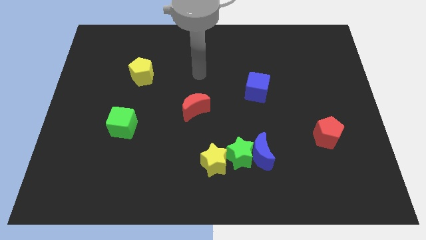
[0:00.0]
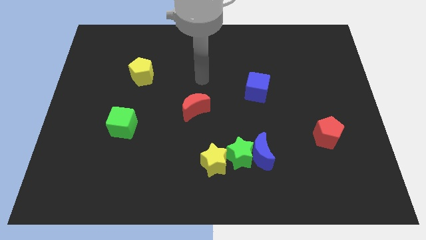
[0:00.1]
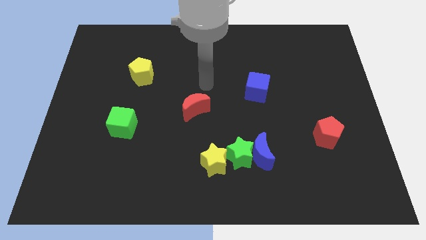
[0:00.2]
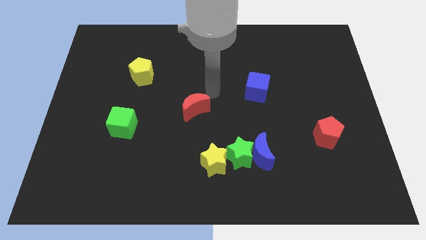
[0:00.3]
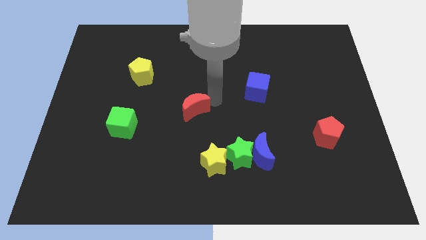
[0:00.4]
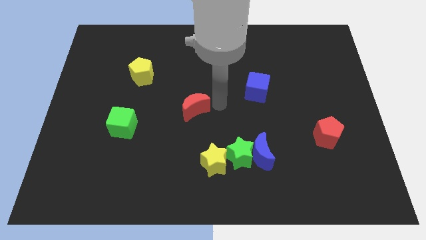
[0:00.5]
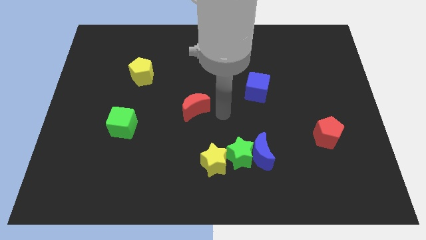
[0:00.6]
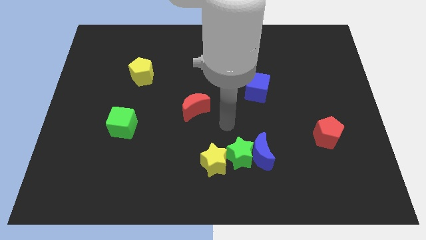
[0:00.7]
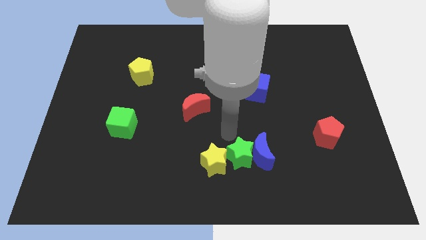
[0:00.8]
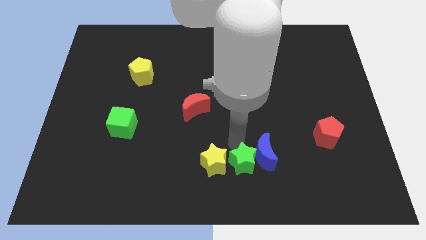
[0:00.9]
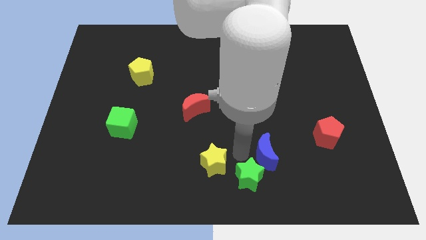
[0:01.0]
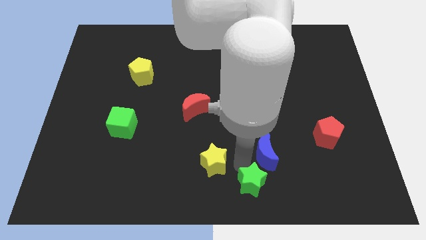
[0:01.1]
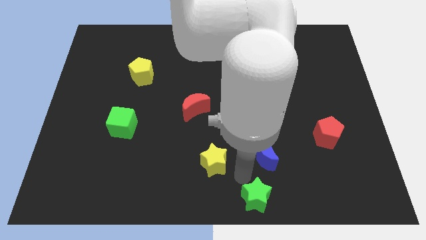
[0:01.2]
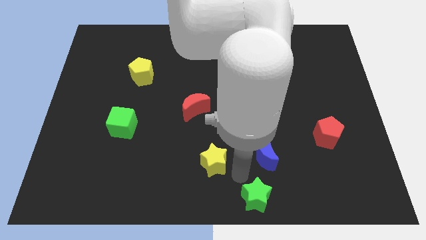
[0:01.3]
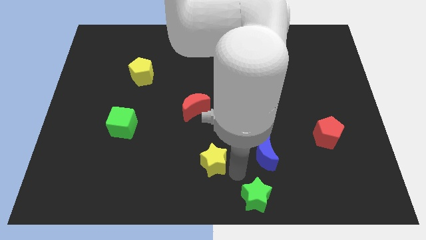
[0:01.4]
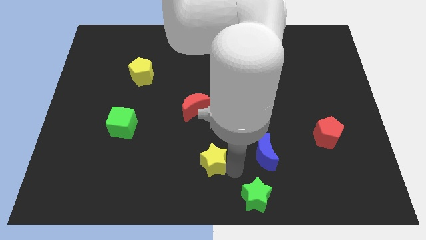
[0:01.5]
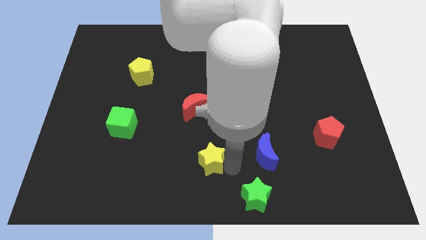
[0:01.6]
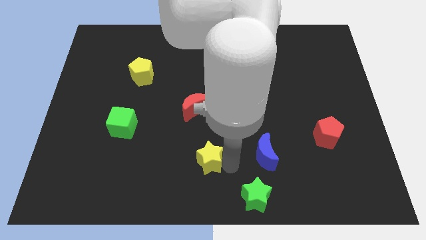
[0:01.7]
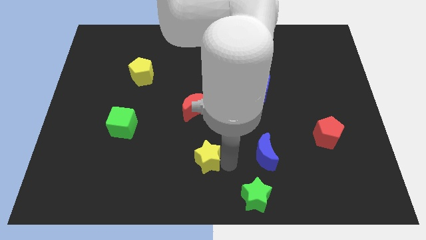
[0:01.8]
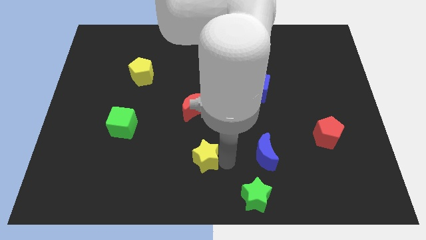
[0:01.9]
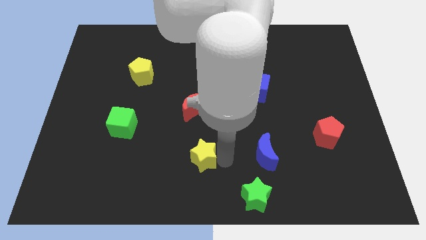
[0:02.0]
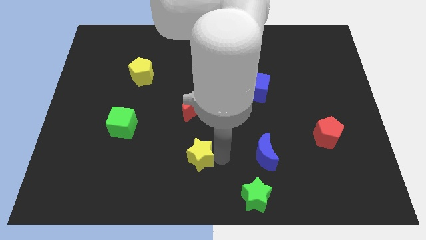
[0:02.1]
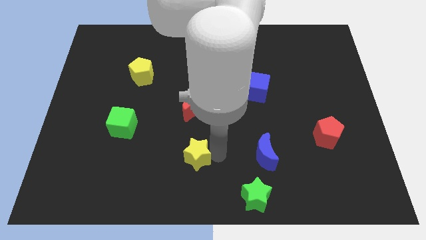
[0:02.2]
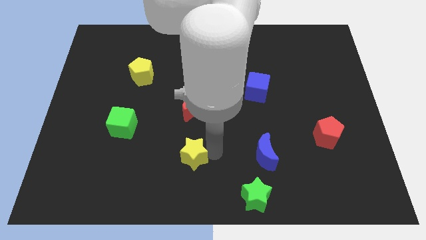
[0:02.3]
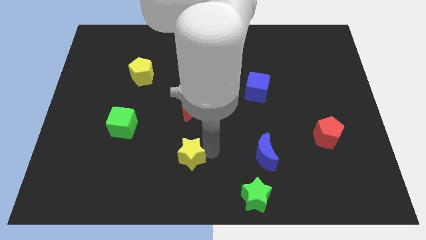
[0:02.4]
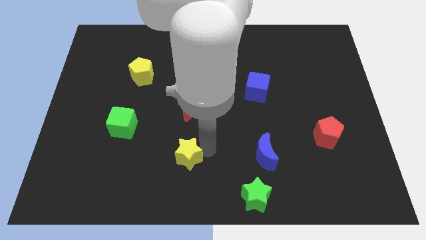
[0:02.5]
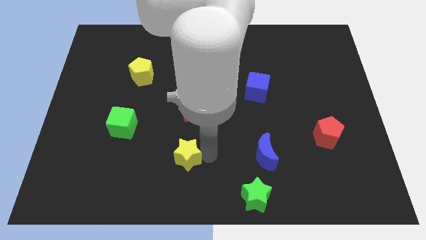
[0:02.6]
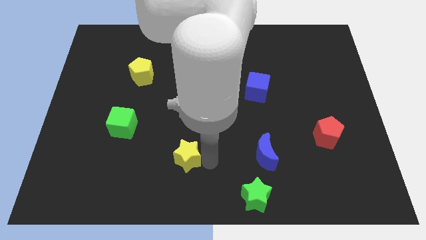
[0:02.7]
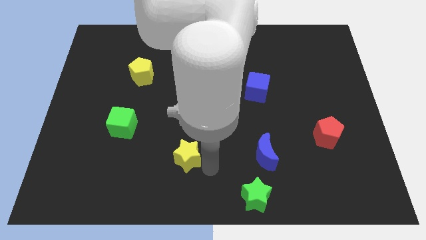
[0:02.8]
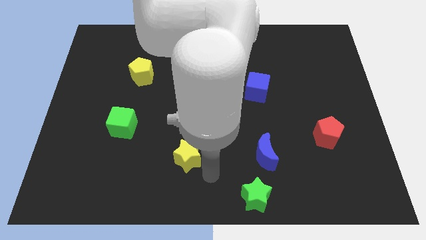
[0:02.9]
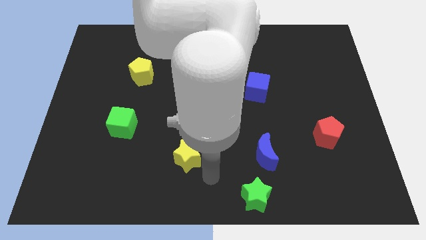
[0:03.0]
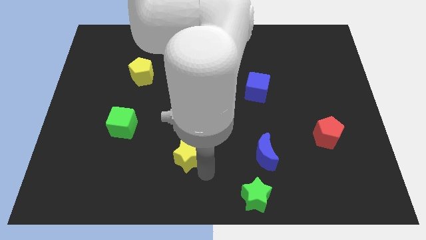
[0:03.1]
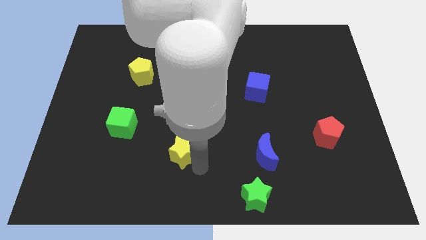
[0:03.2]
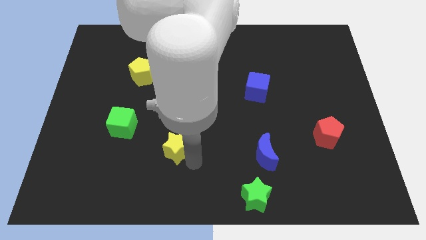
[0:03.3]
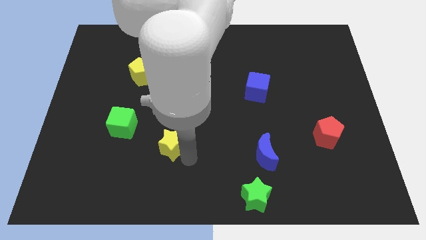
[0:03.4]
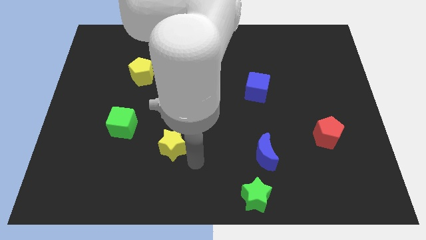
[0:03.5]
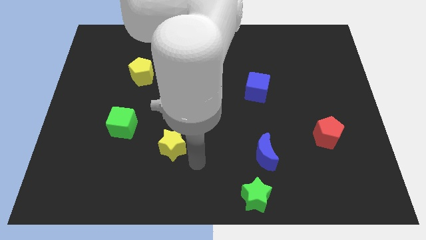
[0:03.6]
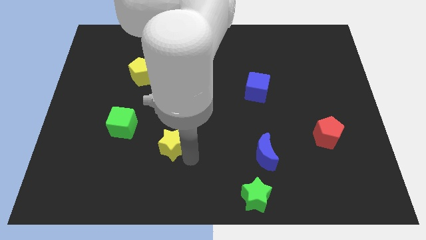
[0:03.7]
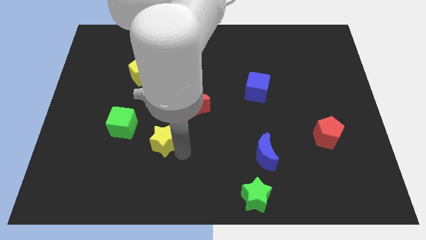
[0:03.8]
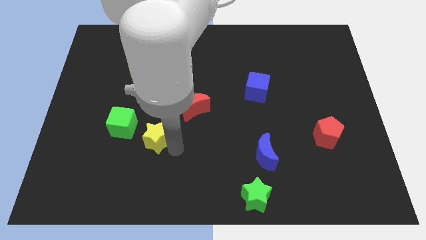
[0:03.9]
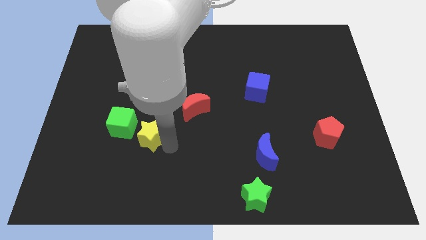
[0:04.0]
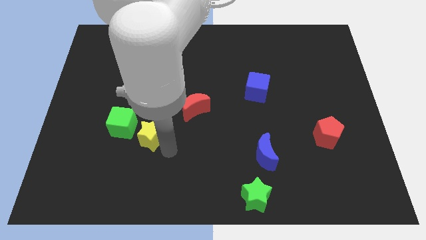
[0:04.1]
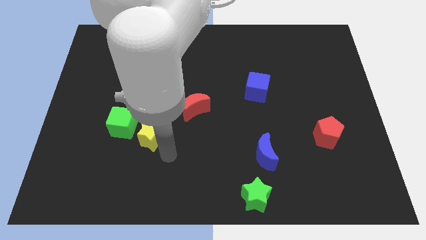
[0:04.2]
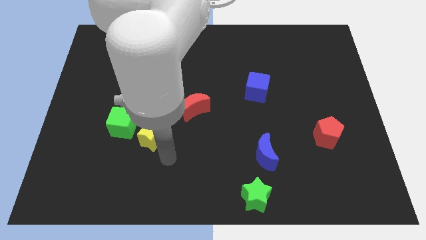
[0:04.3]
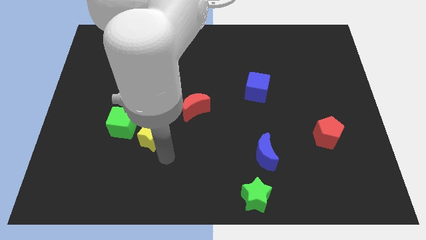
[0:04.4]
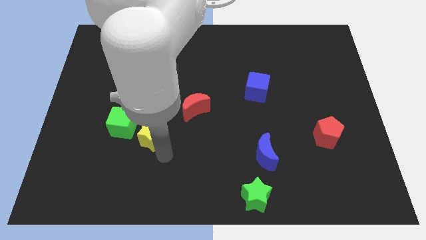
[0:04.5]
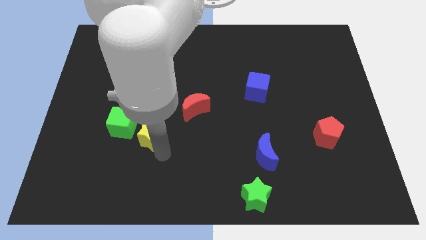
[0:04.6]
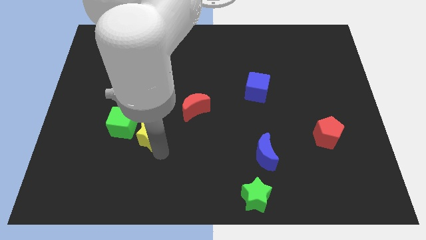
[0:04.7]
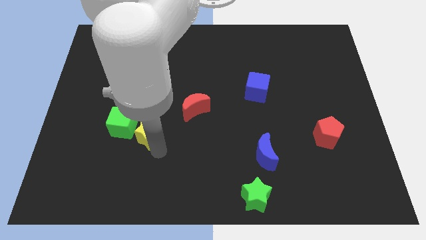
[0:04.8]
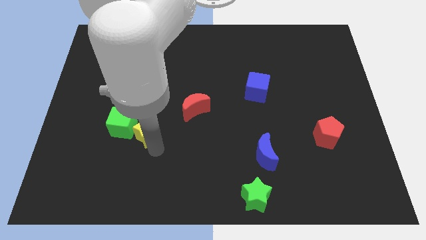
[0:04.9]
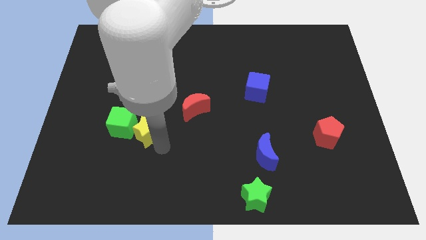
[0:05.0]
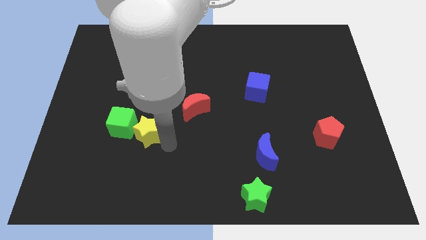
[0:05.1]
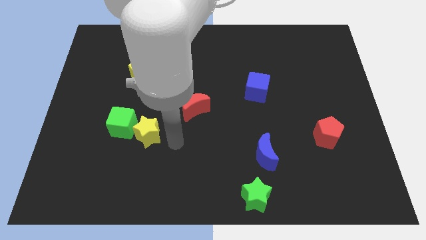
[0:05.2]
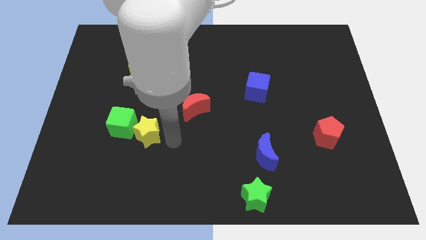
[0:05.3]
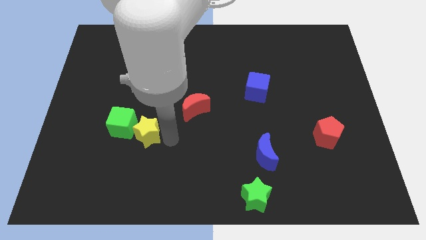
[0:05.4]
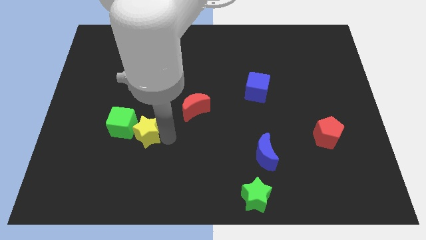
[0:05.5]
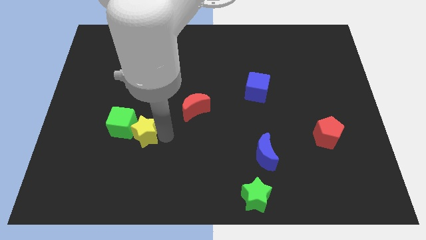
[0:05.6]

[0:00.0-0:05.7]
slide the yellow star close to the green cube

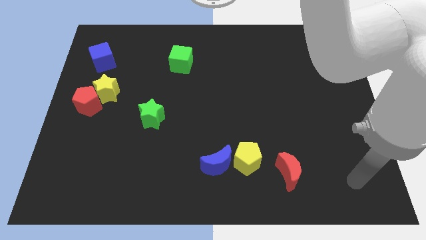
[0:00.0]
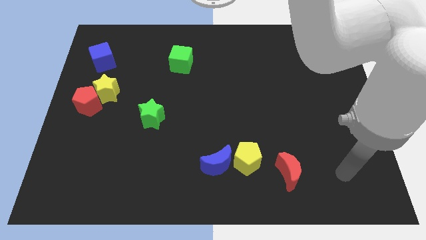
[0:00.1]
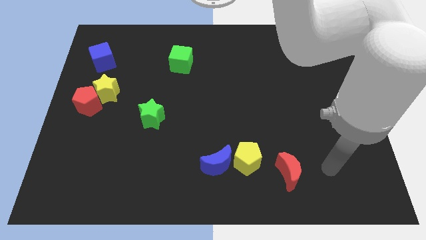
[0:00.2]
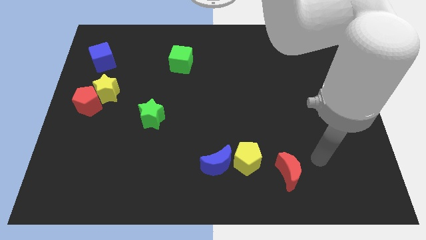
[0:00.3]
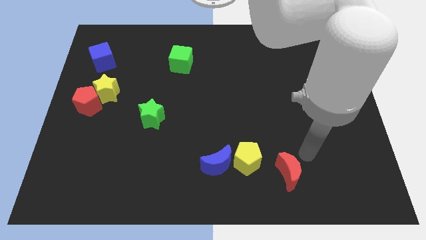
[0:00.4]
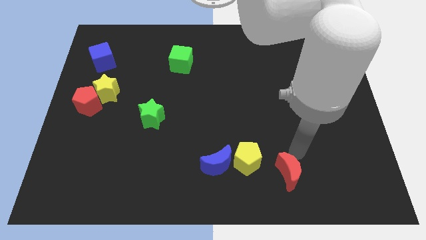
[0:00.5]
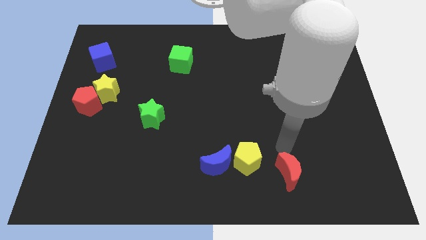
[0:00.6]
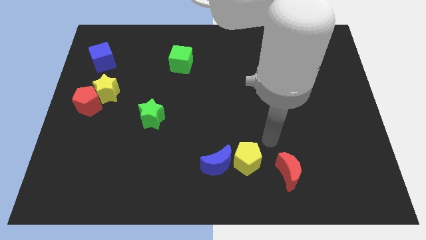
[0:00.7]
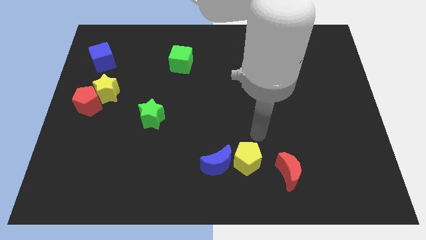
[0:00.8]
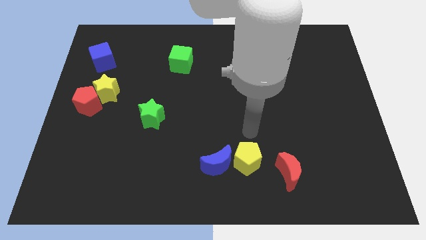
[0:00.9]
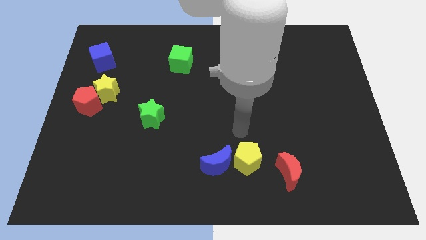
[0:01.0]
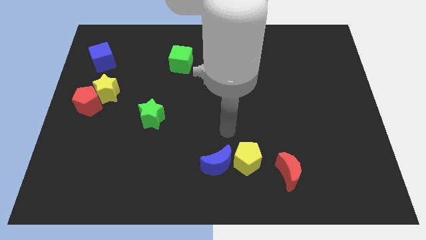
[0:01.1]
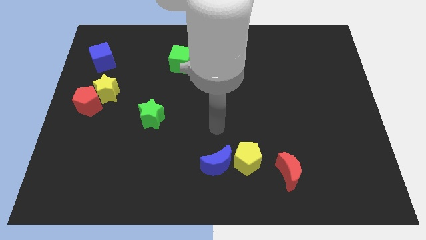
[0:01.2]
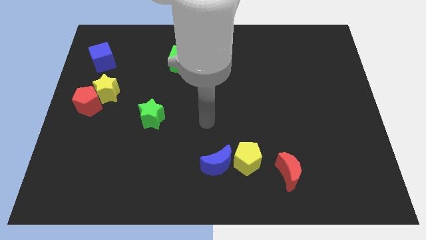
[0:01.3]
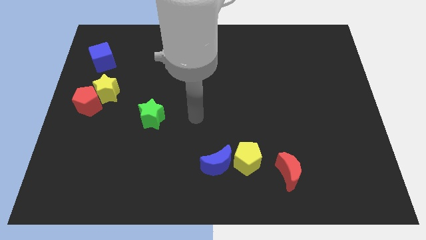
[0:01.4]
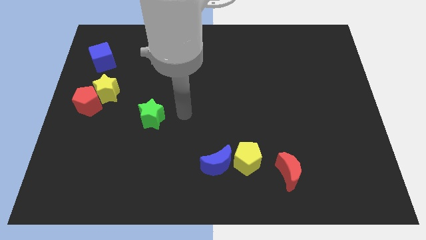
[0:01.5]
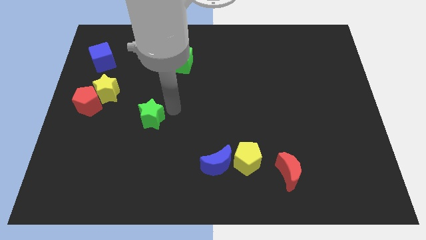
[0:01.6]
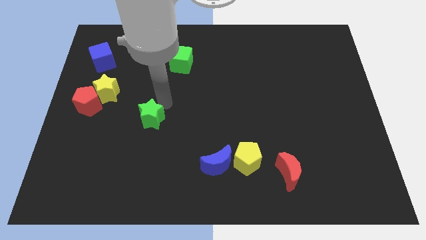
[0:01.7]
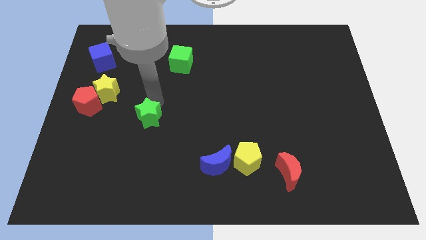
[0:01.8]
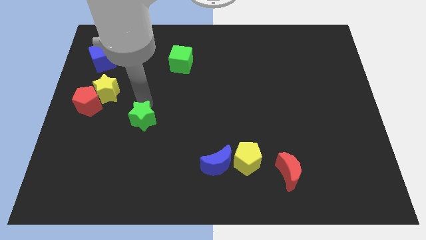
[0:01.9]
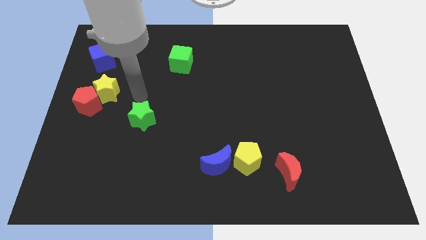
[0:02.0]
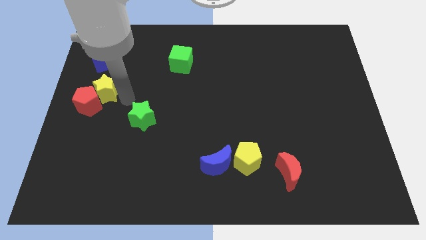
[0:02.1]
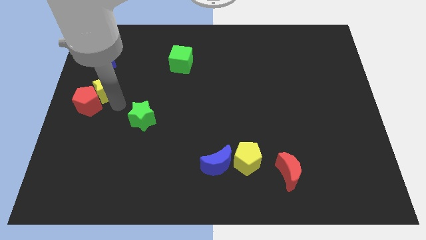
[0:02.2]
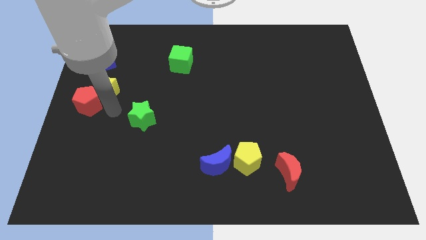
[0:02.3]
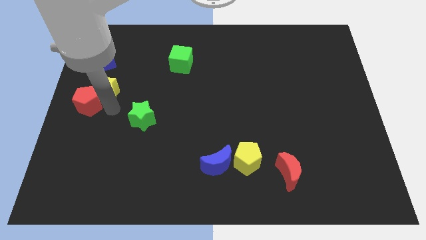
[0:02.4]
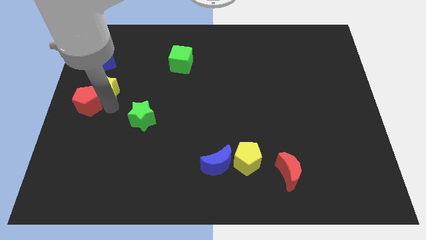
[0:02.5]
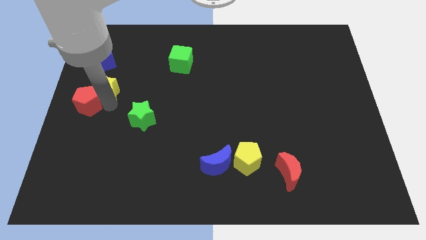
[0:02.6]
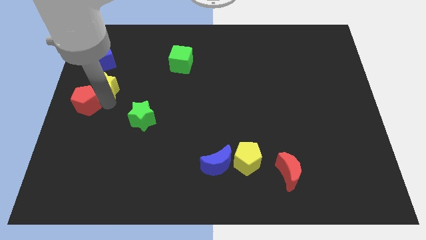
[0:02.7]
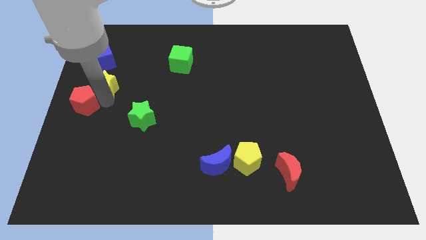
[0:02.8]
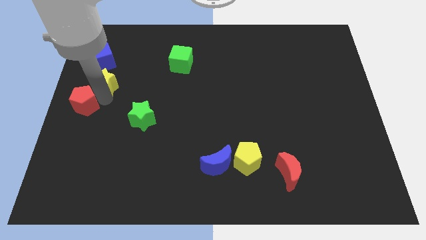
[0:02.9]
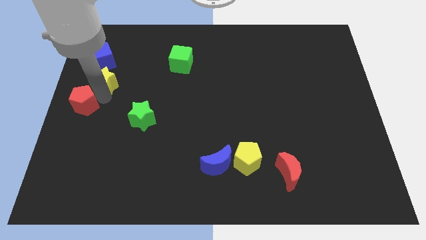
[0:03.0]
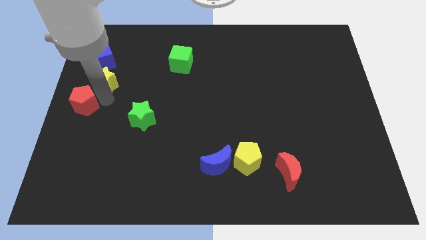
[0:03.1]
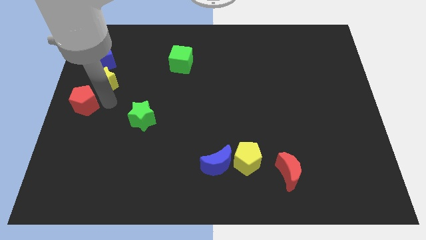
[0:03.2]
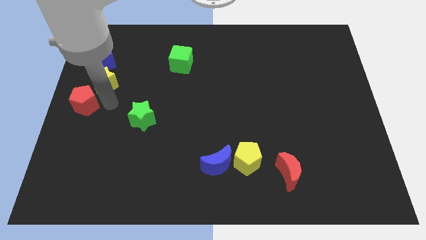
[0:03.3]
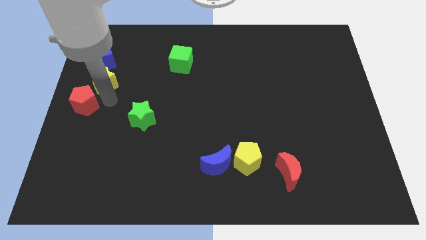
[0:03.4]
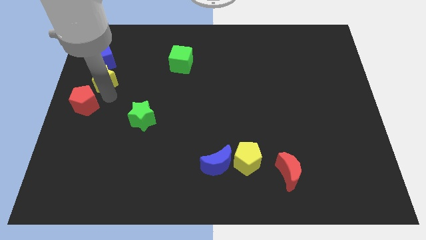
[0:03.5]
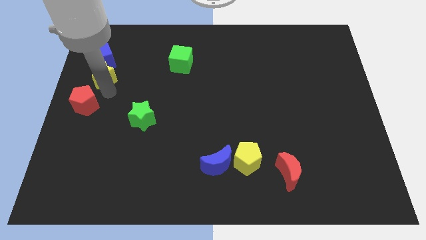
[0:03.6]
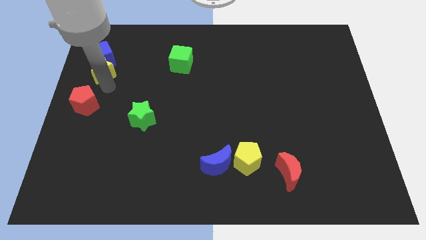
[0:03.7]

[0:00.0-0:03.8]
slide the yellow star close to the blue cube
